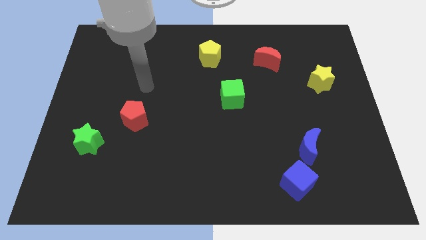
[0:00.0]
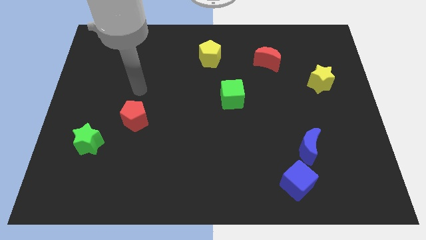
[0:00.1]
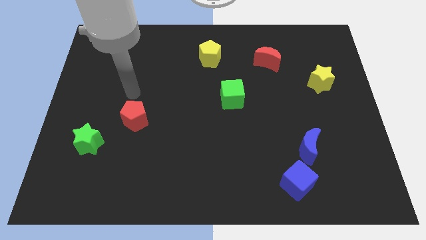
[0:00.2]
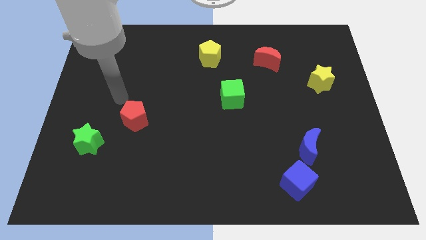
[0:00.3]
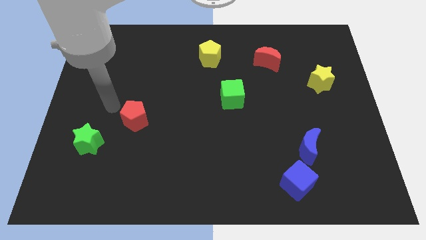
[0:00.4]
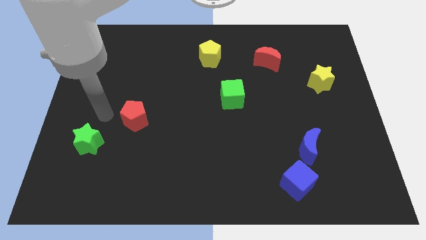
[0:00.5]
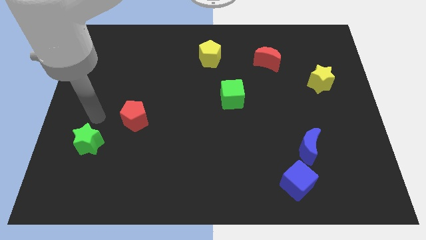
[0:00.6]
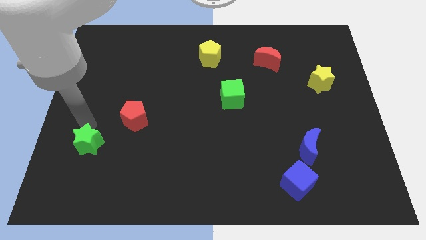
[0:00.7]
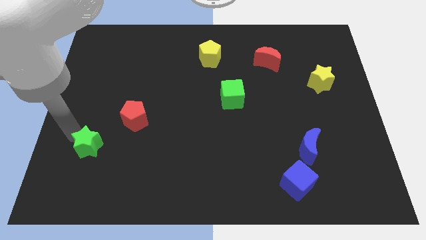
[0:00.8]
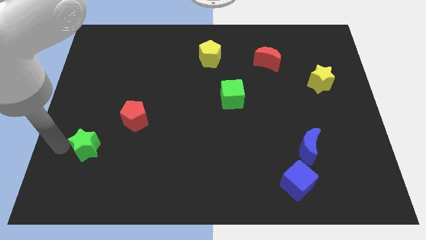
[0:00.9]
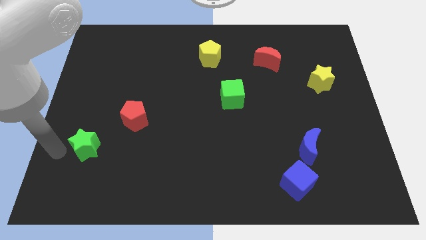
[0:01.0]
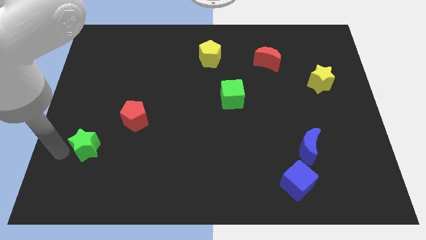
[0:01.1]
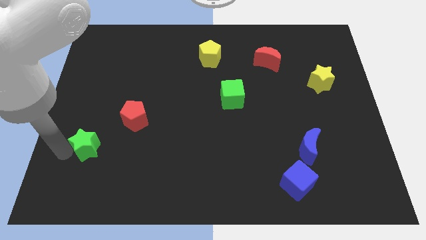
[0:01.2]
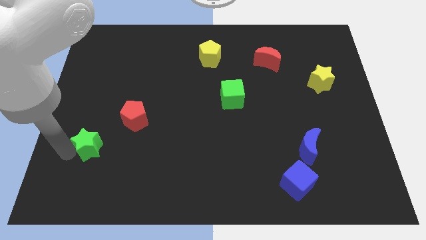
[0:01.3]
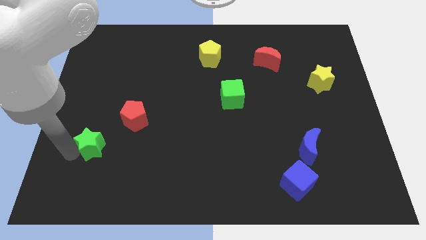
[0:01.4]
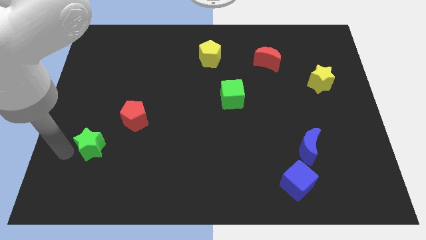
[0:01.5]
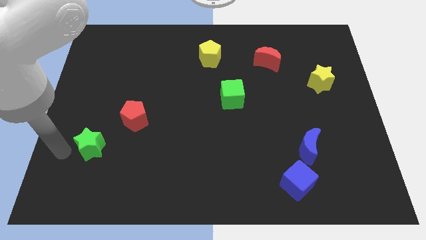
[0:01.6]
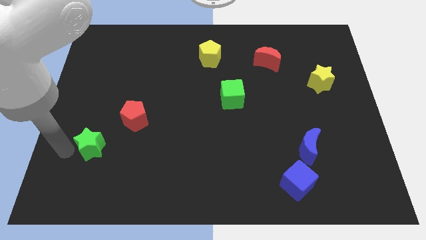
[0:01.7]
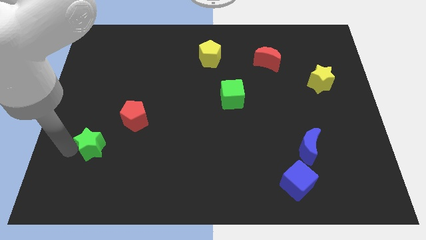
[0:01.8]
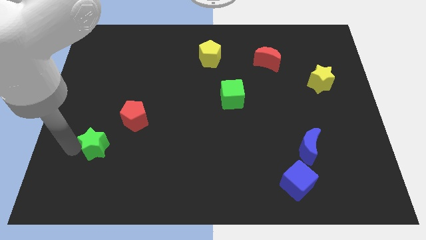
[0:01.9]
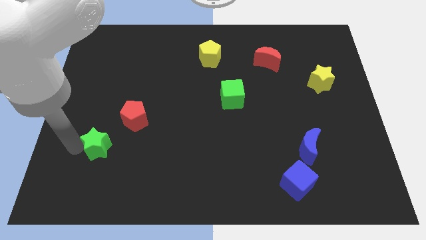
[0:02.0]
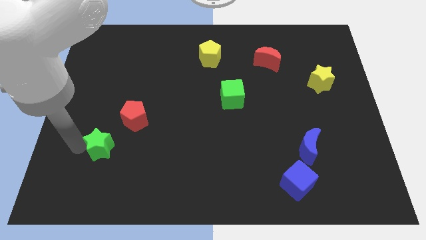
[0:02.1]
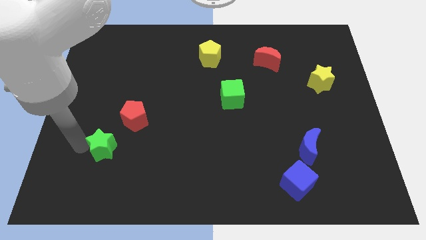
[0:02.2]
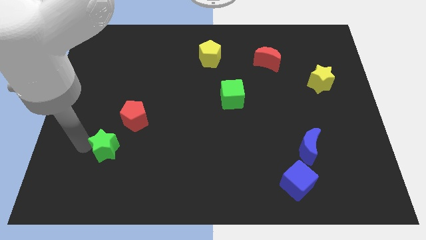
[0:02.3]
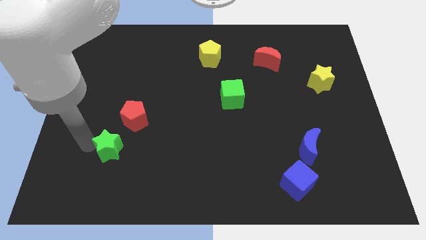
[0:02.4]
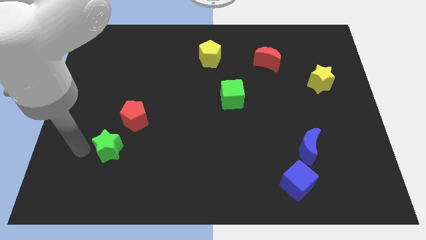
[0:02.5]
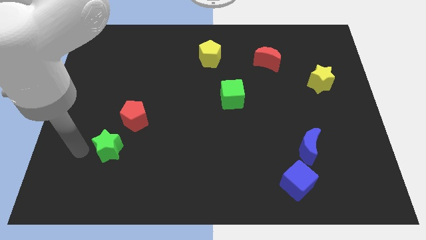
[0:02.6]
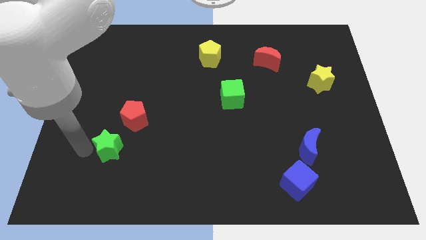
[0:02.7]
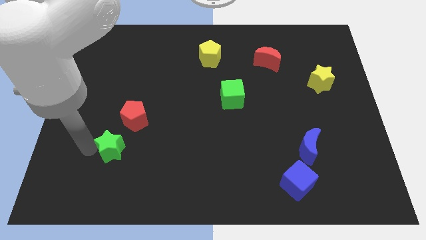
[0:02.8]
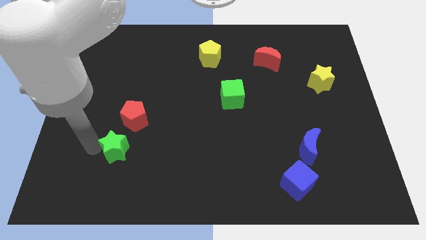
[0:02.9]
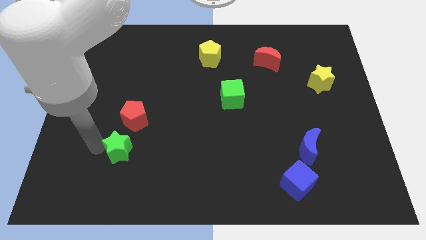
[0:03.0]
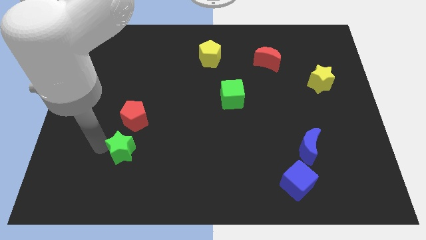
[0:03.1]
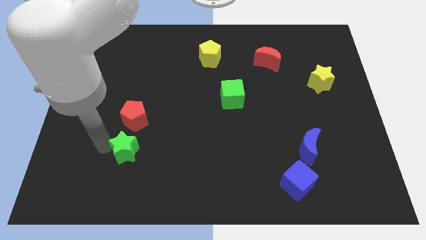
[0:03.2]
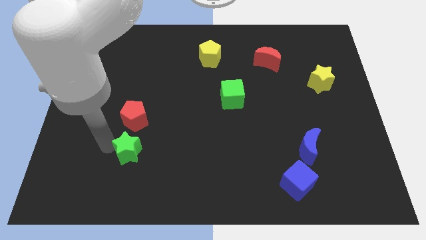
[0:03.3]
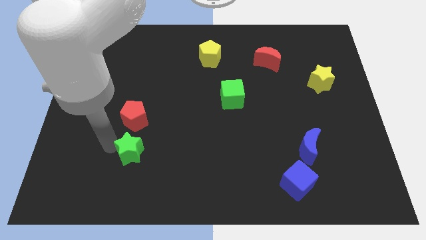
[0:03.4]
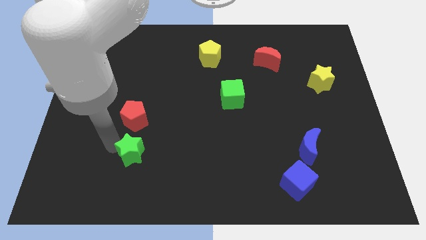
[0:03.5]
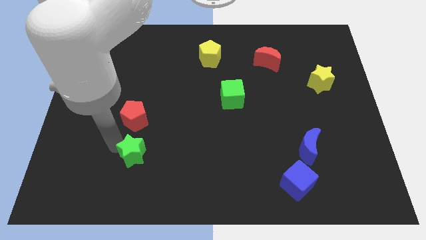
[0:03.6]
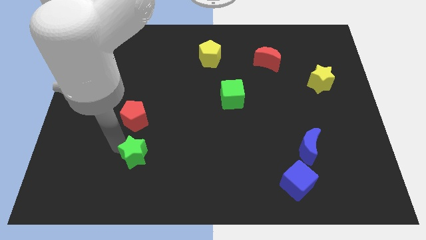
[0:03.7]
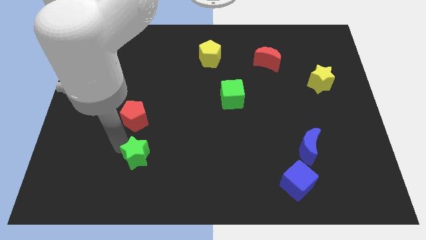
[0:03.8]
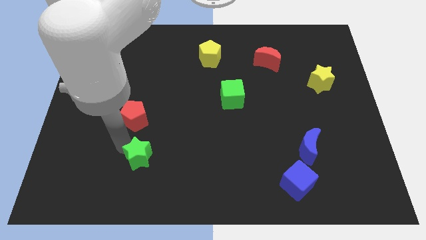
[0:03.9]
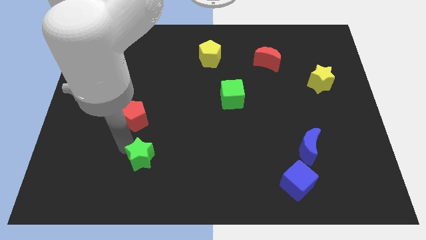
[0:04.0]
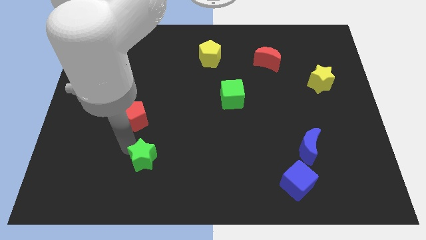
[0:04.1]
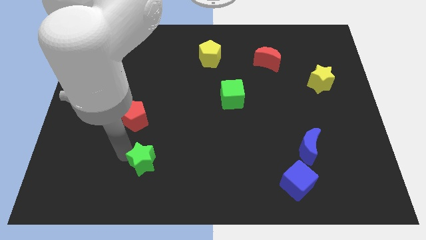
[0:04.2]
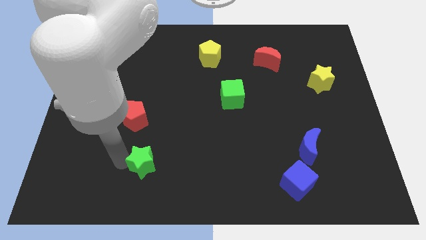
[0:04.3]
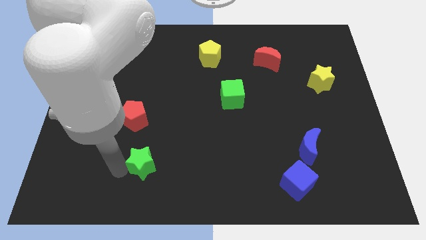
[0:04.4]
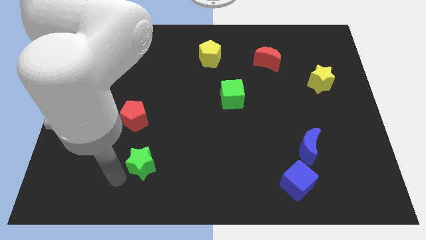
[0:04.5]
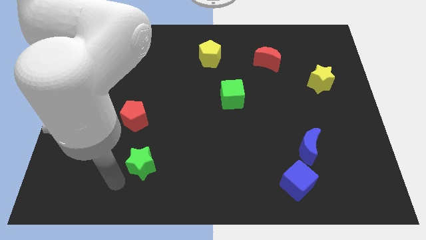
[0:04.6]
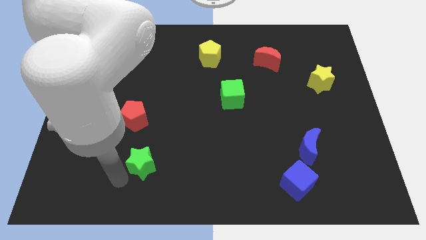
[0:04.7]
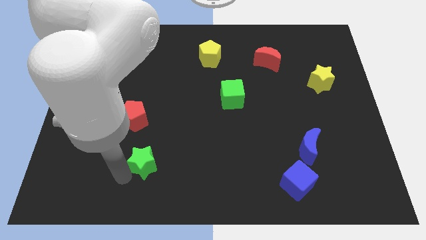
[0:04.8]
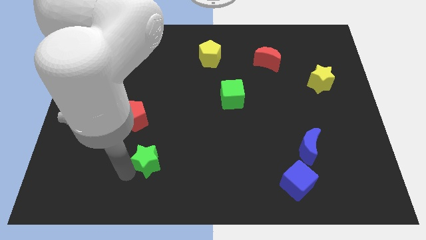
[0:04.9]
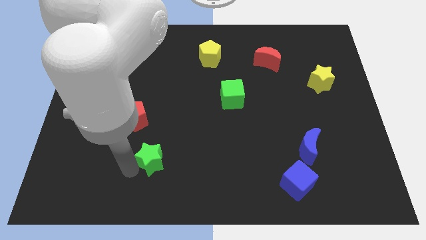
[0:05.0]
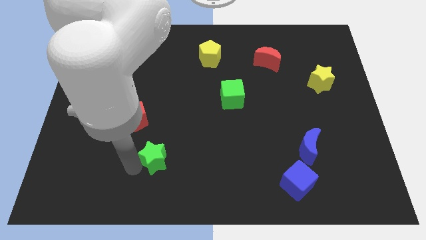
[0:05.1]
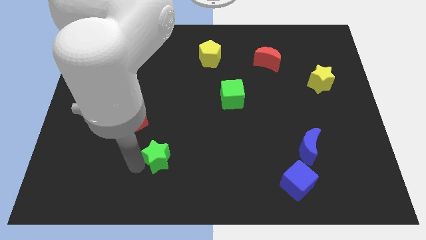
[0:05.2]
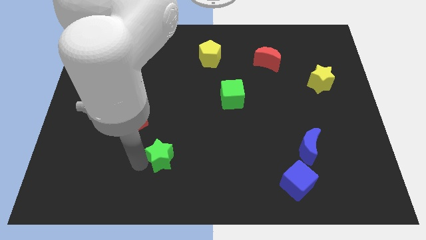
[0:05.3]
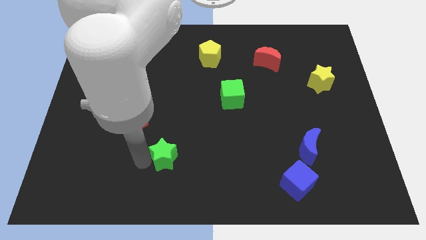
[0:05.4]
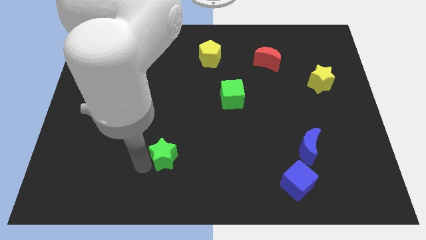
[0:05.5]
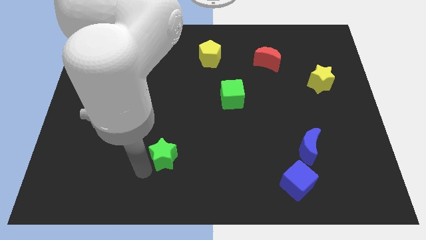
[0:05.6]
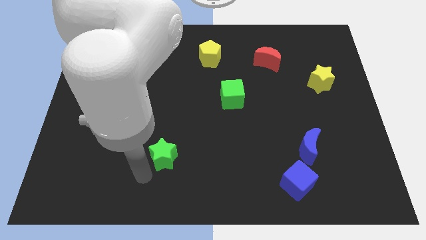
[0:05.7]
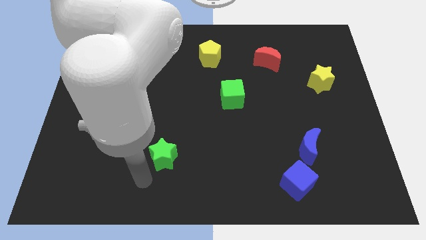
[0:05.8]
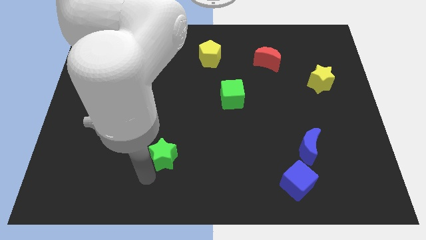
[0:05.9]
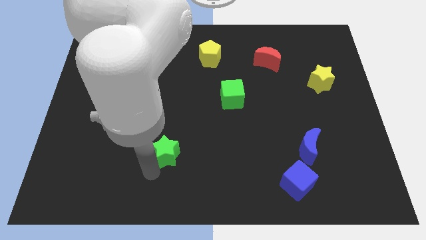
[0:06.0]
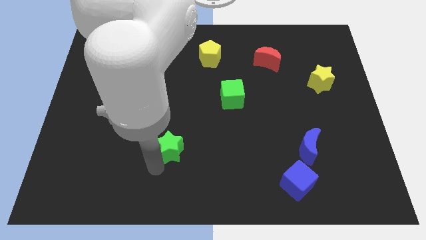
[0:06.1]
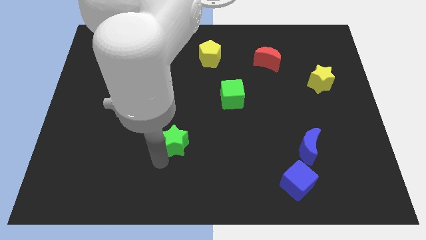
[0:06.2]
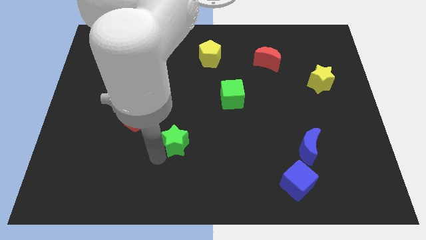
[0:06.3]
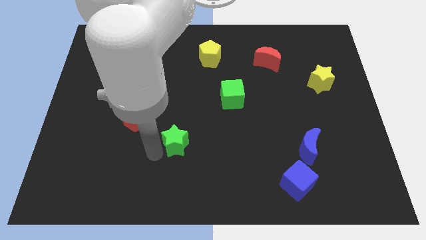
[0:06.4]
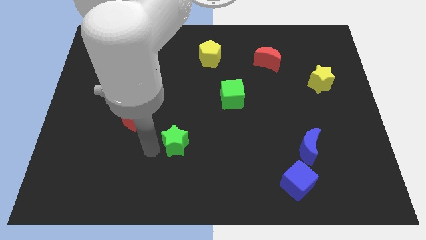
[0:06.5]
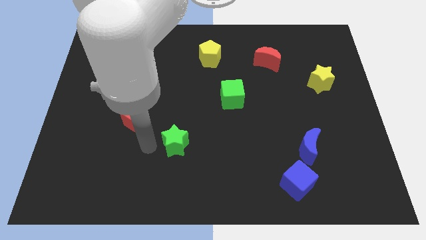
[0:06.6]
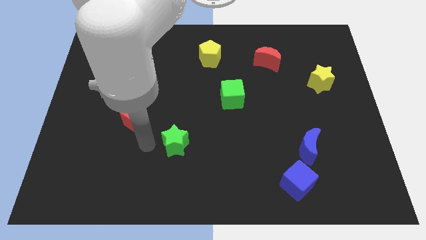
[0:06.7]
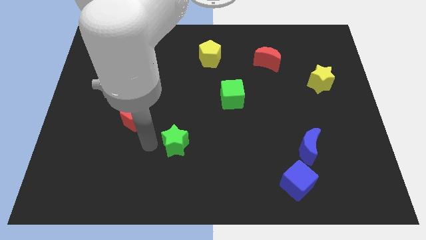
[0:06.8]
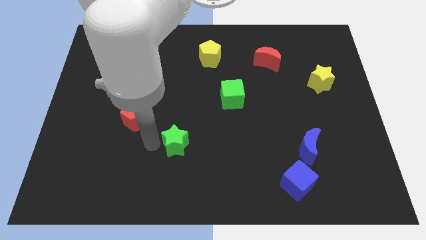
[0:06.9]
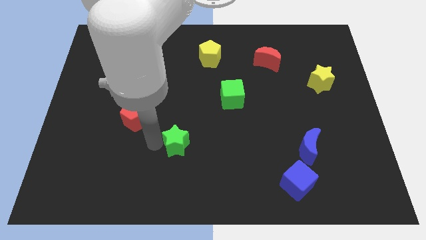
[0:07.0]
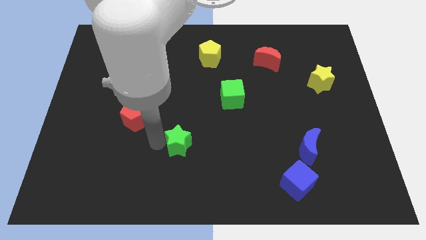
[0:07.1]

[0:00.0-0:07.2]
move the green star to the right

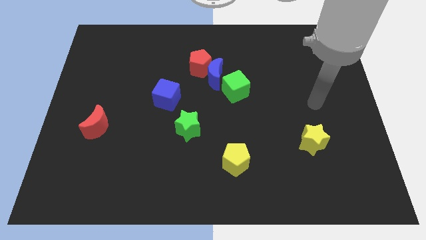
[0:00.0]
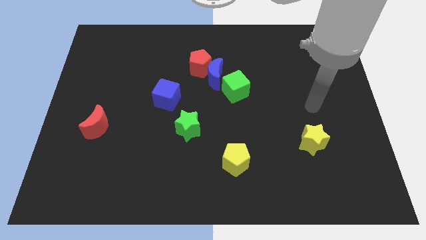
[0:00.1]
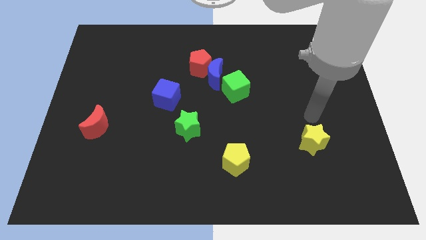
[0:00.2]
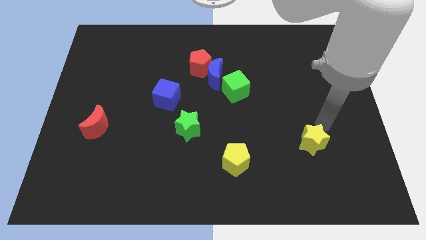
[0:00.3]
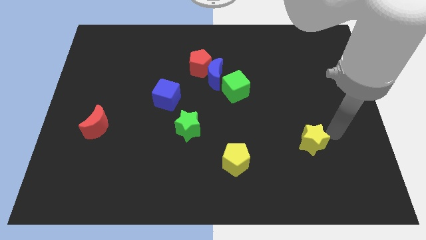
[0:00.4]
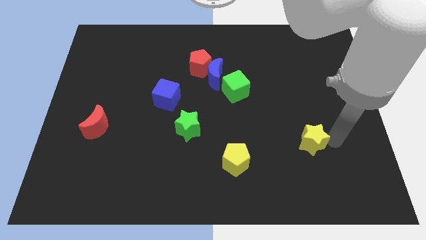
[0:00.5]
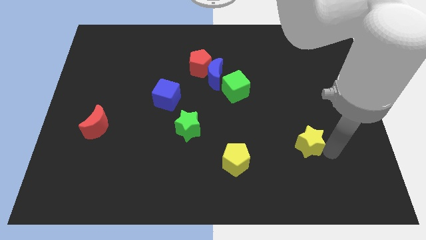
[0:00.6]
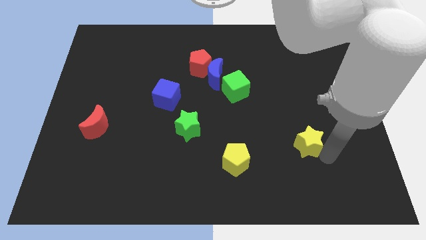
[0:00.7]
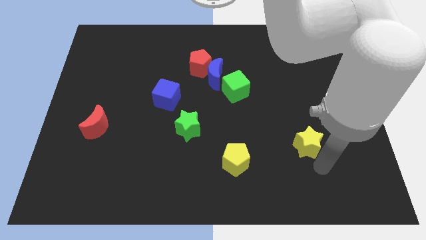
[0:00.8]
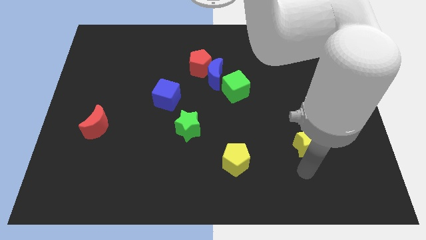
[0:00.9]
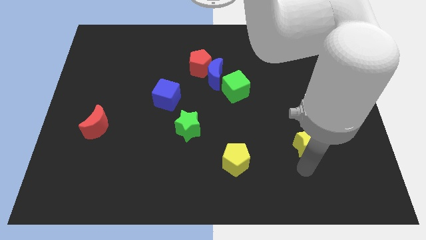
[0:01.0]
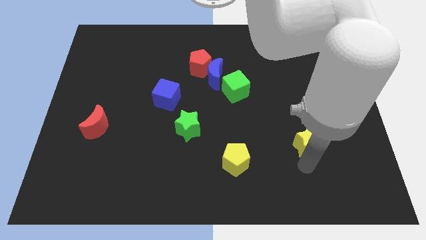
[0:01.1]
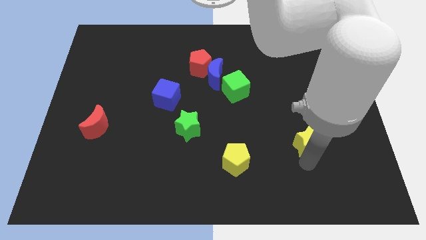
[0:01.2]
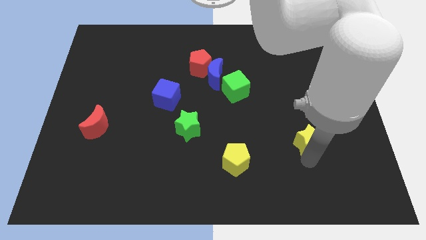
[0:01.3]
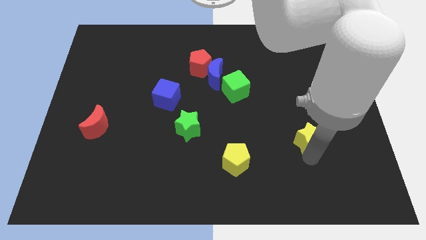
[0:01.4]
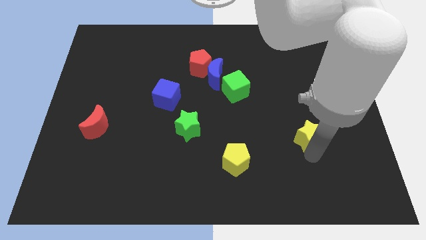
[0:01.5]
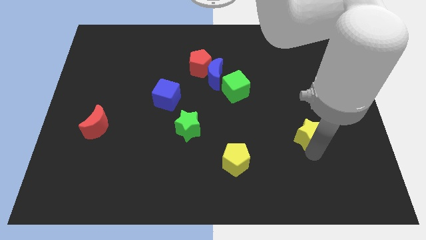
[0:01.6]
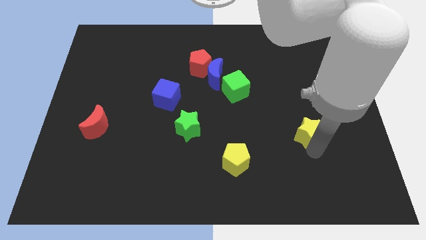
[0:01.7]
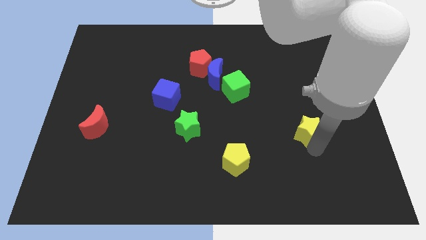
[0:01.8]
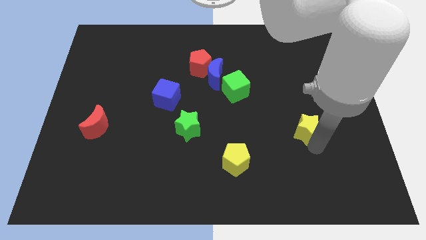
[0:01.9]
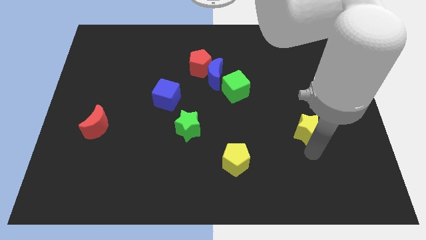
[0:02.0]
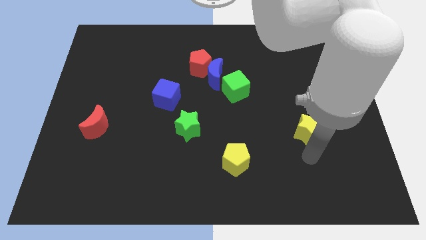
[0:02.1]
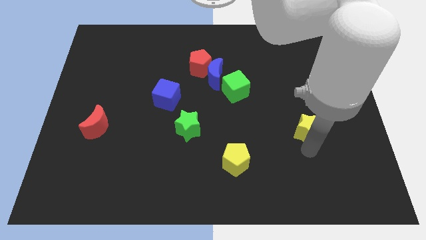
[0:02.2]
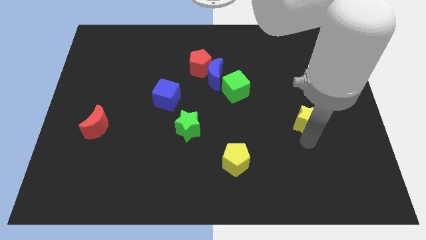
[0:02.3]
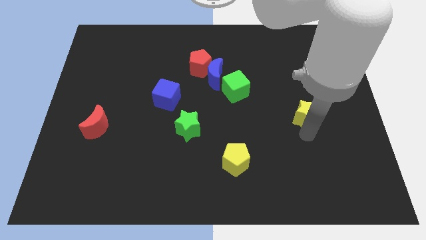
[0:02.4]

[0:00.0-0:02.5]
slide the yellow star somewhat upwards
